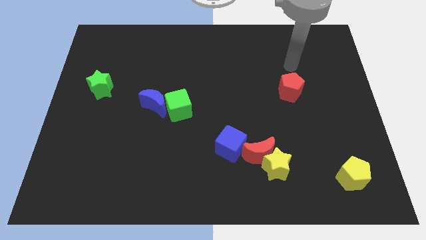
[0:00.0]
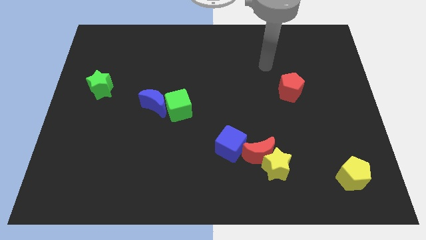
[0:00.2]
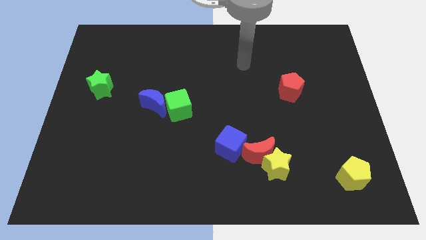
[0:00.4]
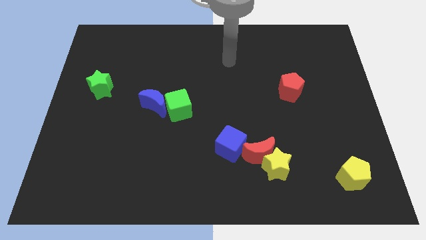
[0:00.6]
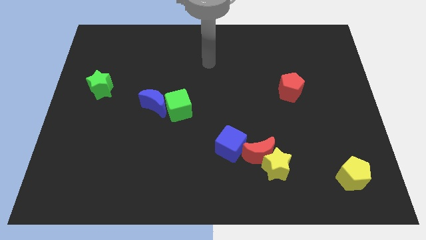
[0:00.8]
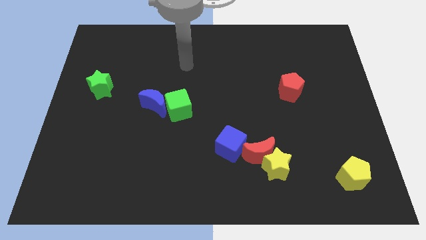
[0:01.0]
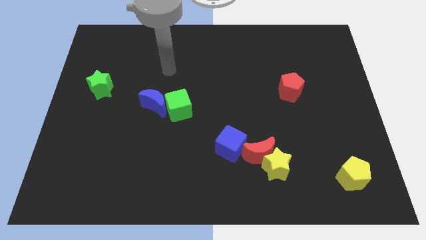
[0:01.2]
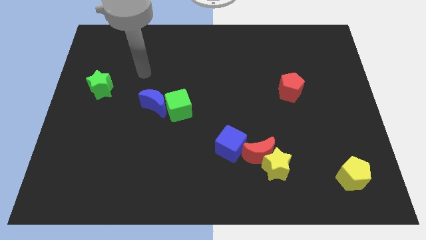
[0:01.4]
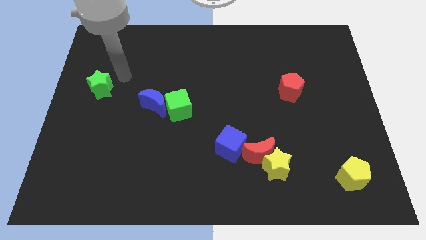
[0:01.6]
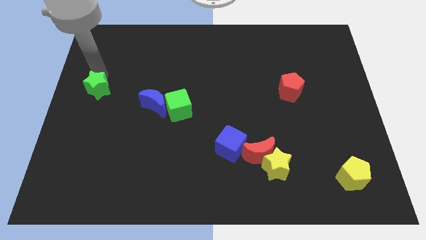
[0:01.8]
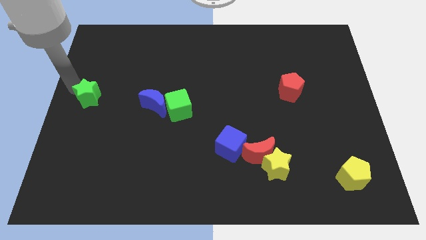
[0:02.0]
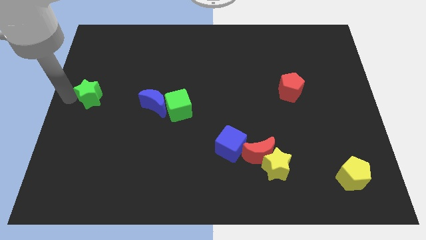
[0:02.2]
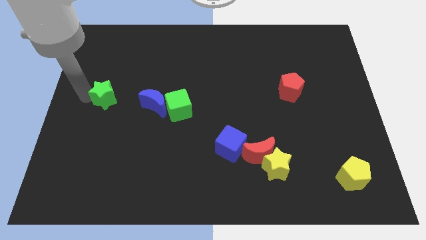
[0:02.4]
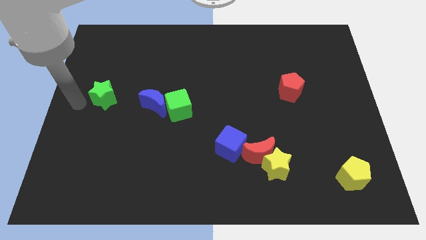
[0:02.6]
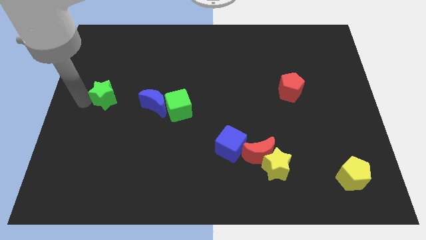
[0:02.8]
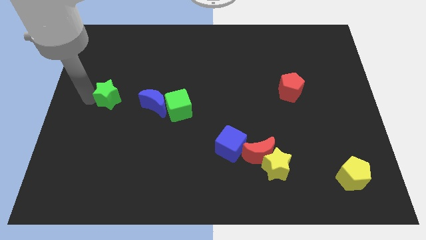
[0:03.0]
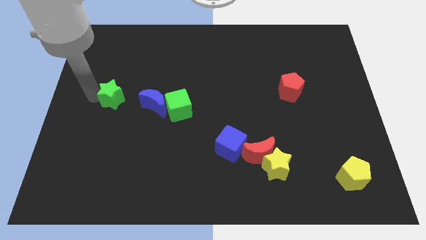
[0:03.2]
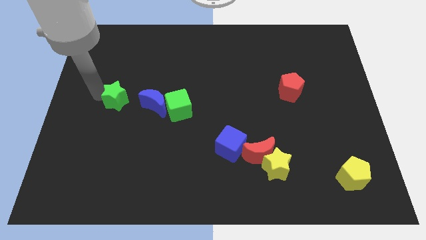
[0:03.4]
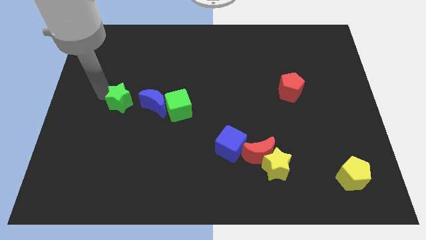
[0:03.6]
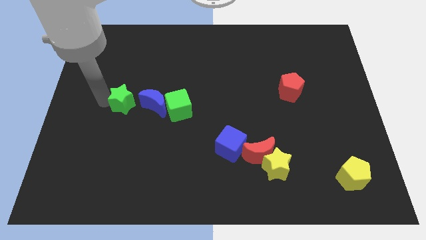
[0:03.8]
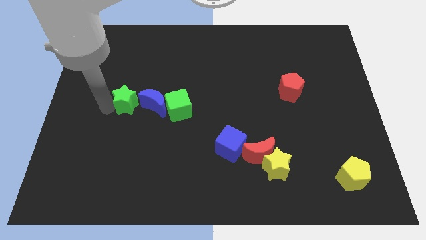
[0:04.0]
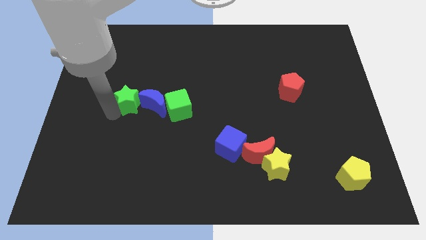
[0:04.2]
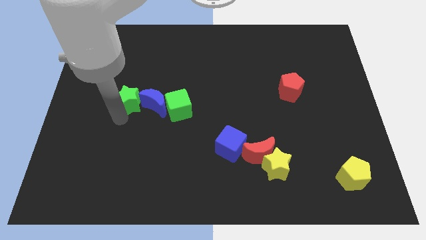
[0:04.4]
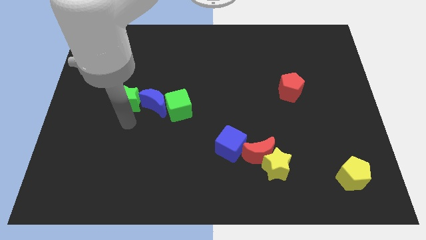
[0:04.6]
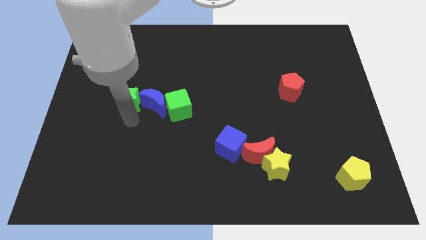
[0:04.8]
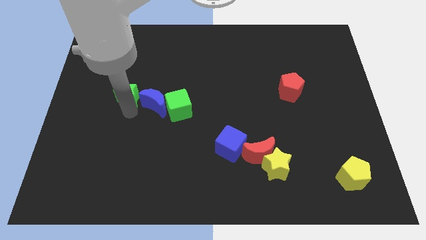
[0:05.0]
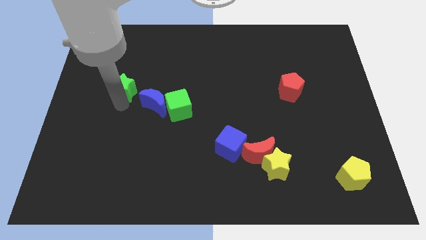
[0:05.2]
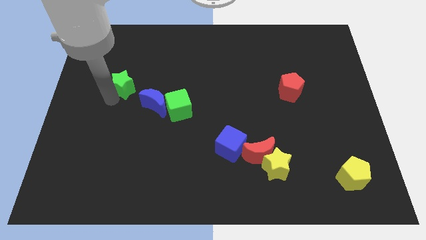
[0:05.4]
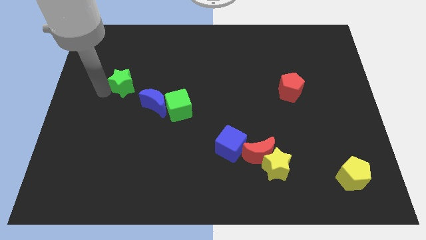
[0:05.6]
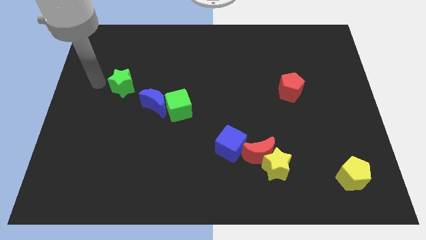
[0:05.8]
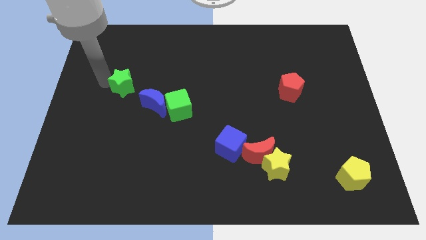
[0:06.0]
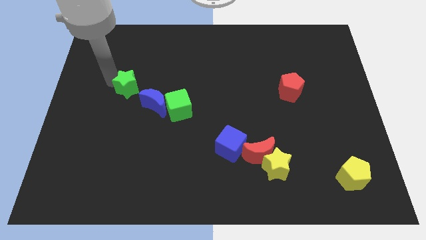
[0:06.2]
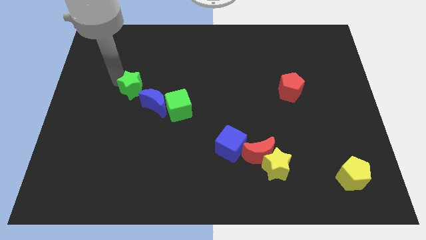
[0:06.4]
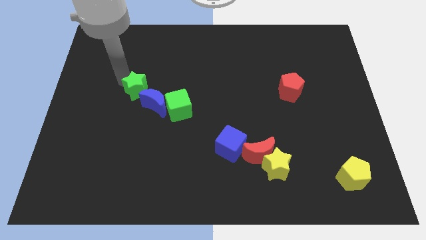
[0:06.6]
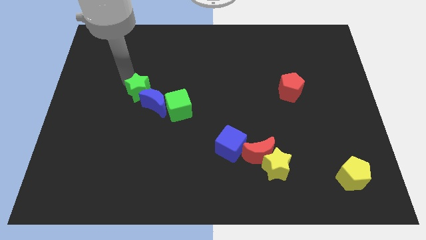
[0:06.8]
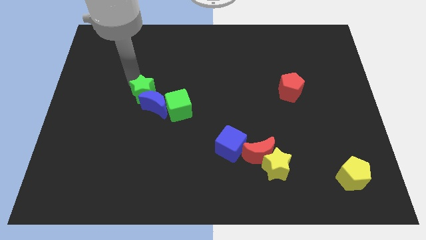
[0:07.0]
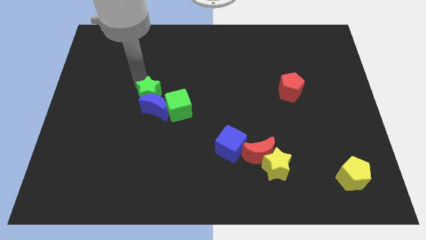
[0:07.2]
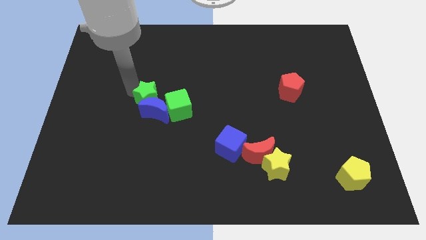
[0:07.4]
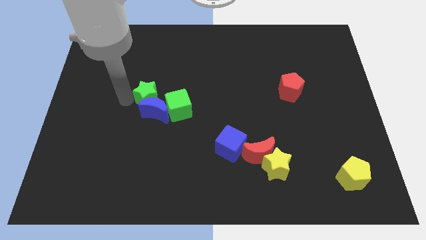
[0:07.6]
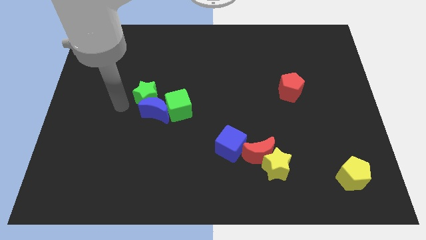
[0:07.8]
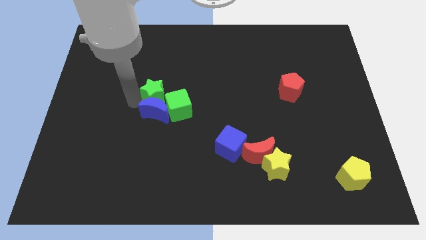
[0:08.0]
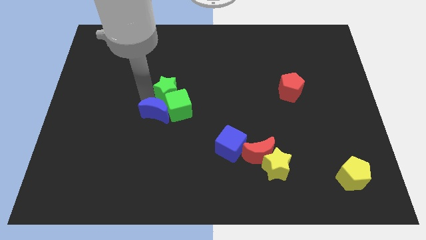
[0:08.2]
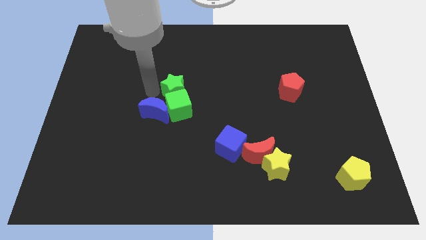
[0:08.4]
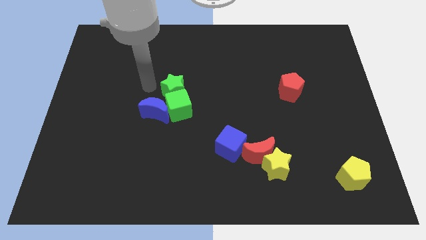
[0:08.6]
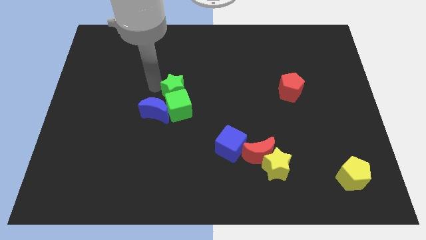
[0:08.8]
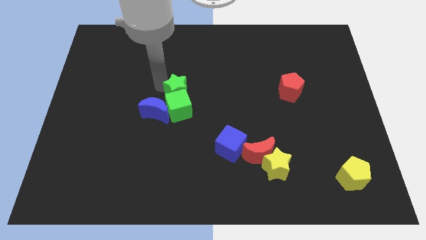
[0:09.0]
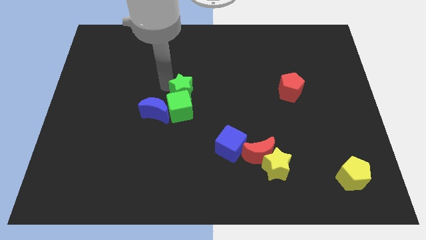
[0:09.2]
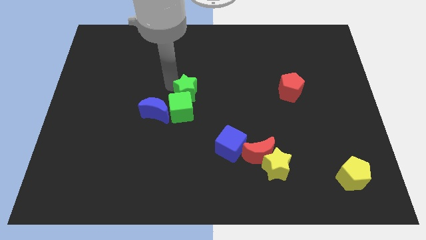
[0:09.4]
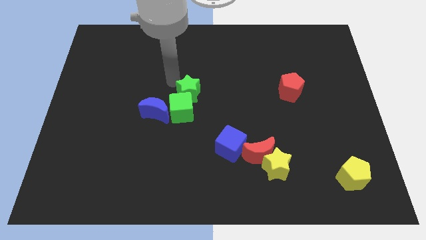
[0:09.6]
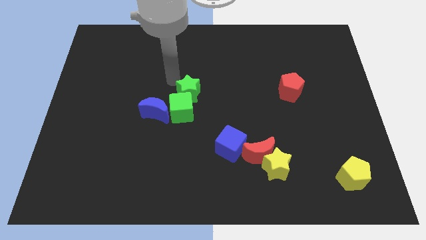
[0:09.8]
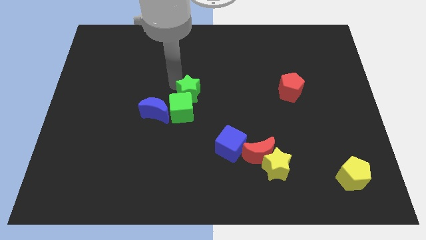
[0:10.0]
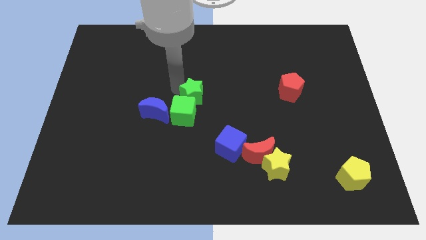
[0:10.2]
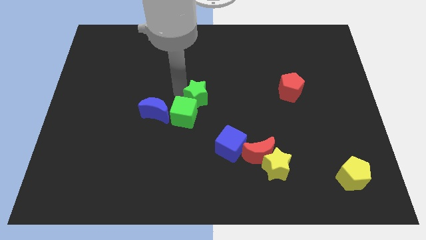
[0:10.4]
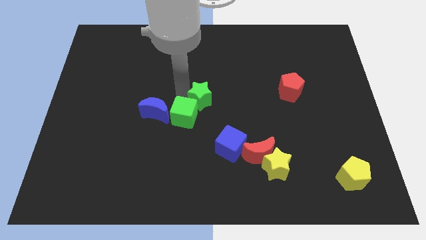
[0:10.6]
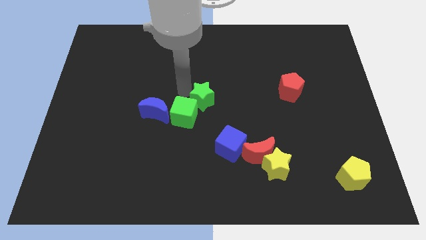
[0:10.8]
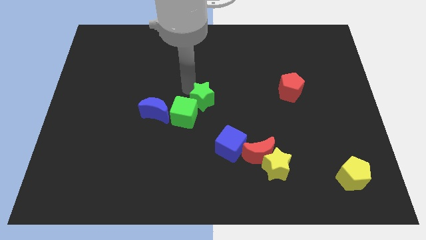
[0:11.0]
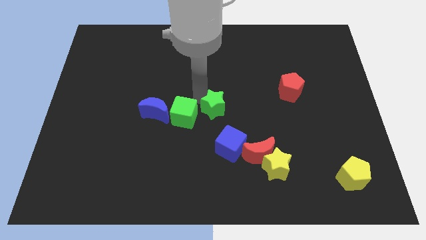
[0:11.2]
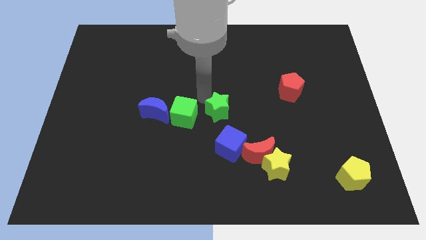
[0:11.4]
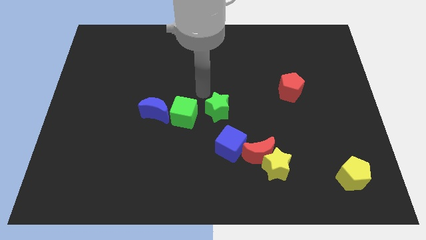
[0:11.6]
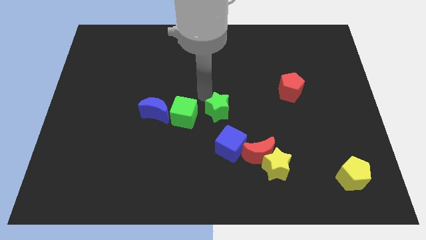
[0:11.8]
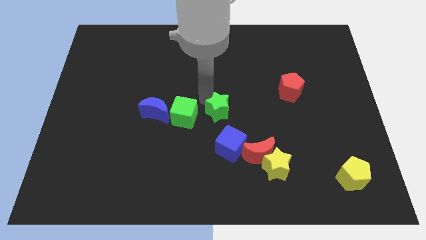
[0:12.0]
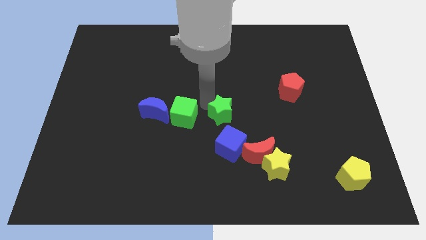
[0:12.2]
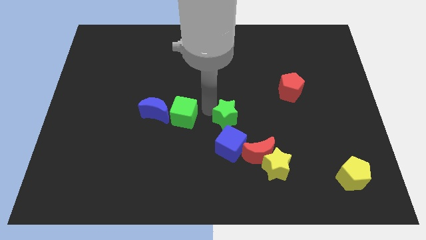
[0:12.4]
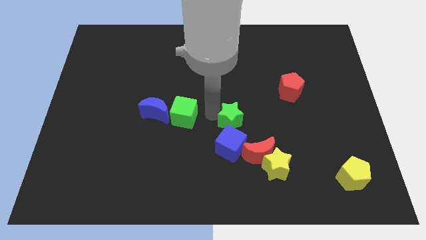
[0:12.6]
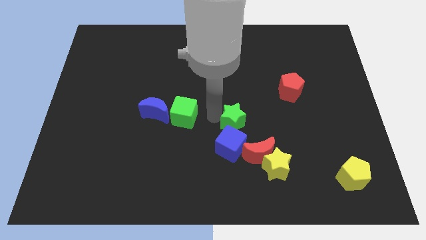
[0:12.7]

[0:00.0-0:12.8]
push the green star to the top right of the blue cube
